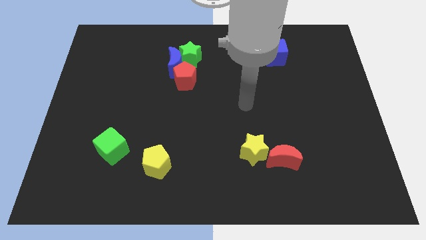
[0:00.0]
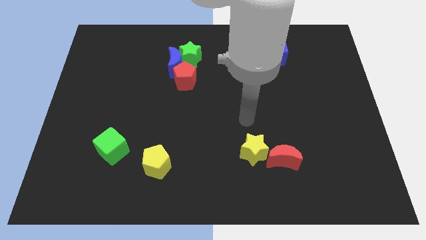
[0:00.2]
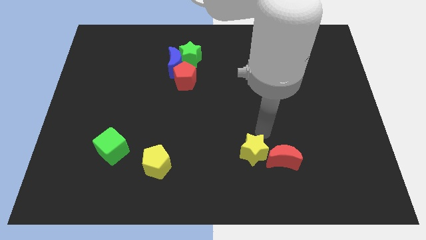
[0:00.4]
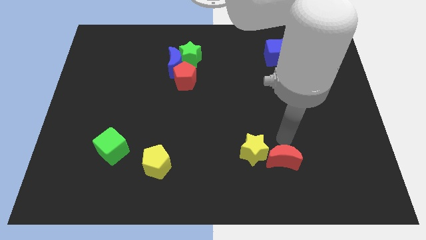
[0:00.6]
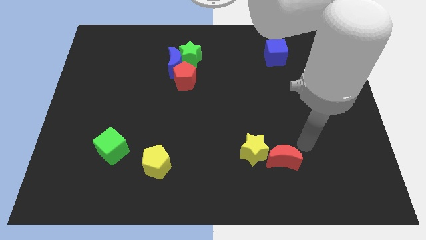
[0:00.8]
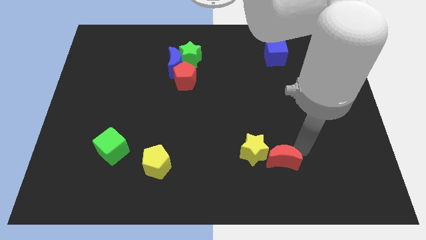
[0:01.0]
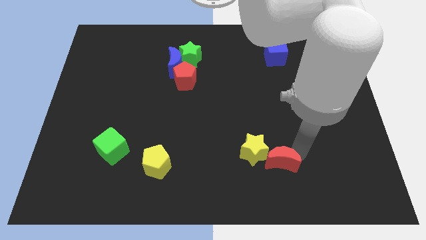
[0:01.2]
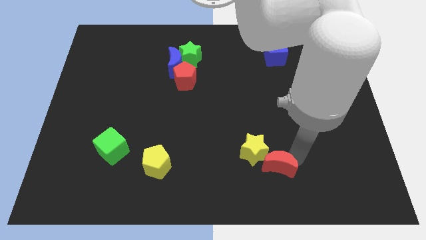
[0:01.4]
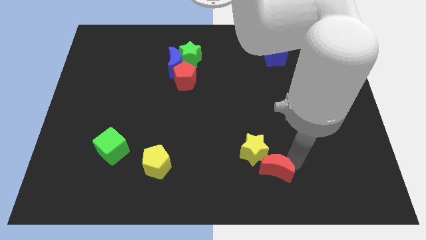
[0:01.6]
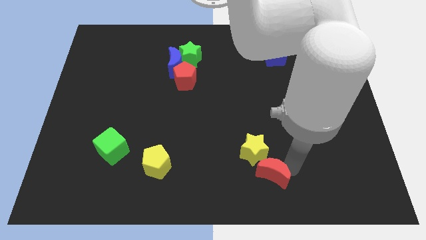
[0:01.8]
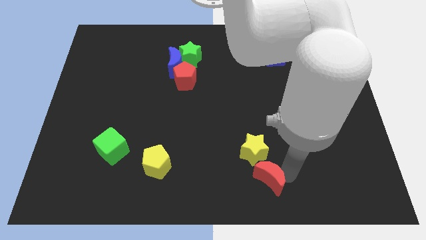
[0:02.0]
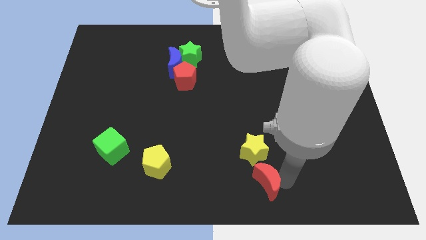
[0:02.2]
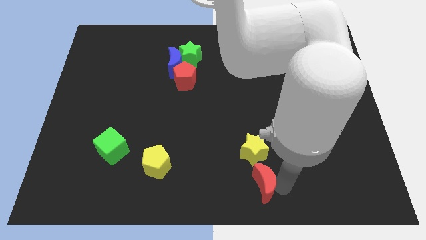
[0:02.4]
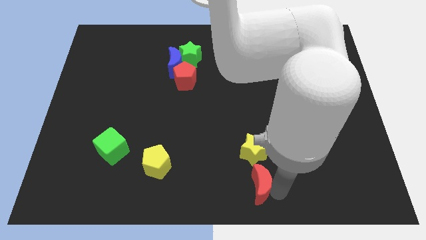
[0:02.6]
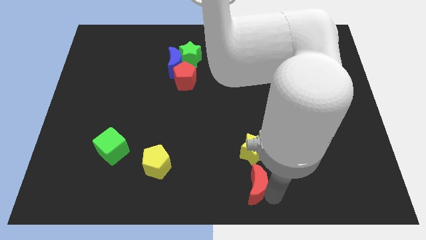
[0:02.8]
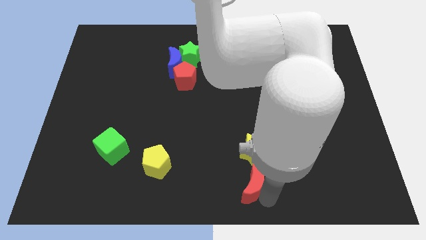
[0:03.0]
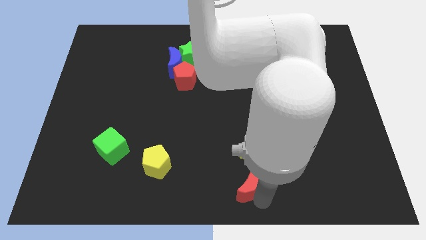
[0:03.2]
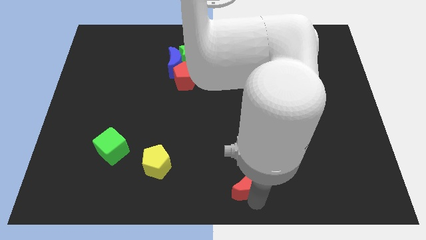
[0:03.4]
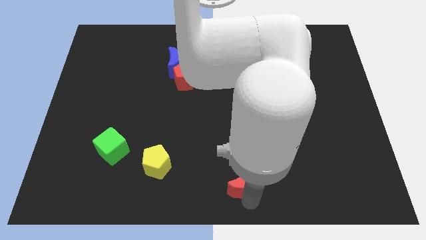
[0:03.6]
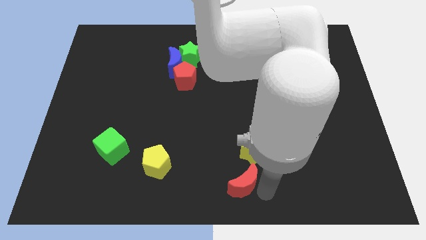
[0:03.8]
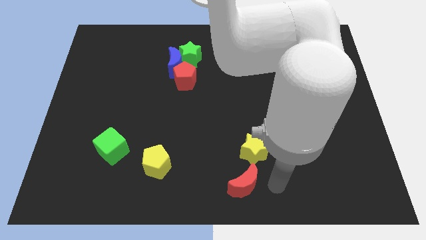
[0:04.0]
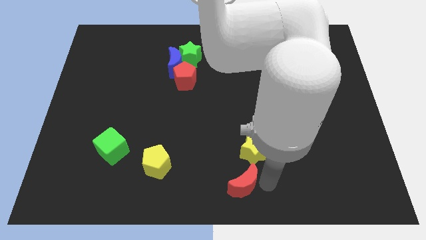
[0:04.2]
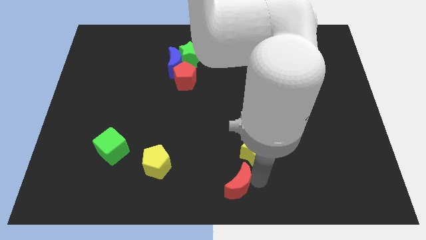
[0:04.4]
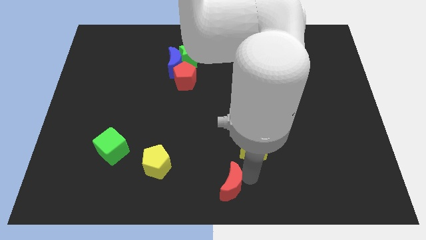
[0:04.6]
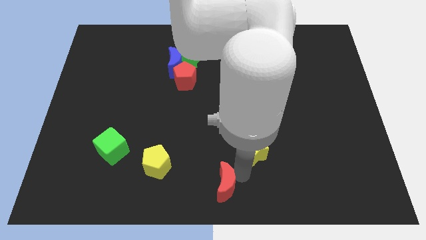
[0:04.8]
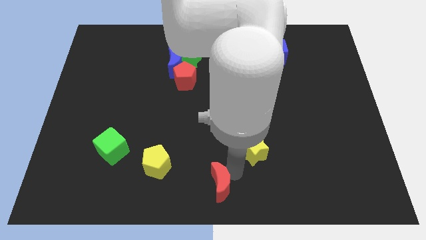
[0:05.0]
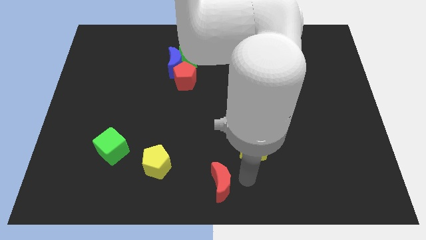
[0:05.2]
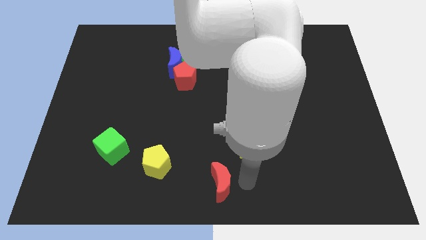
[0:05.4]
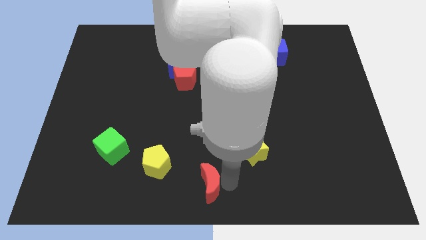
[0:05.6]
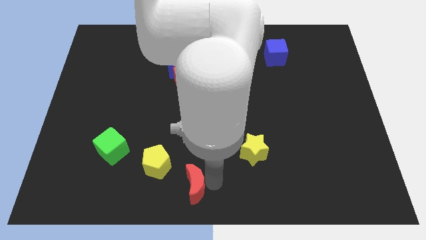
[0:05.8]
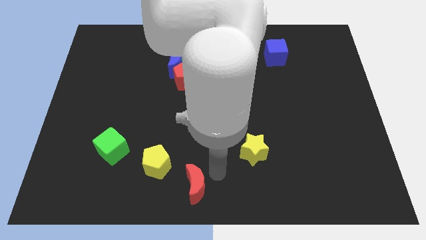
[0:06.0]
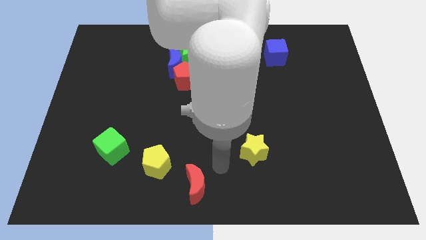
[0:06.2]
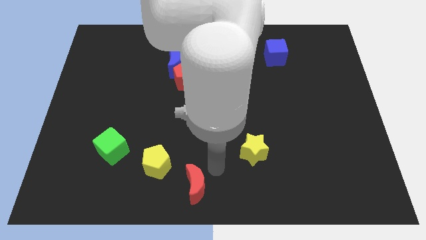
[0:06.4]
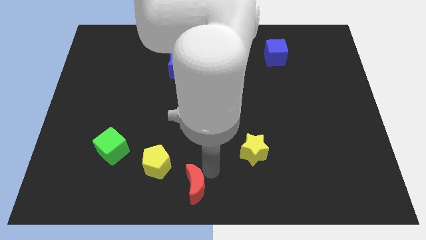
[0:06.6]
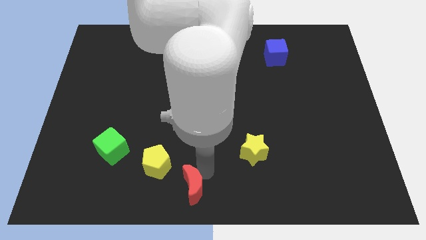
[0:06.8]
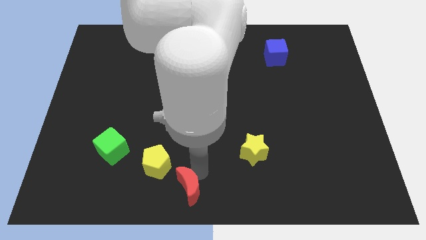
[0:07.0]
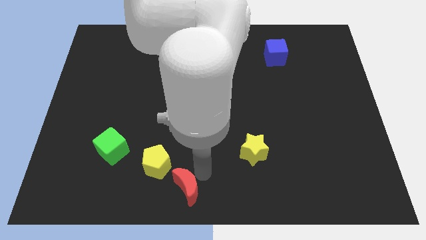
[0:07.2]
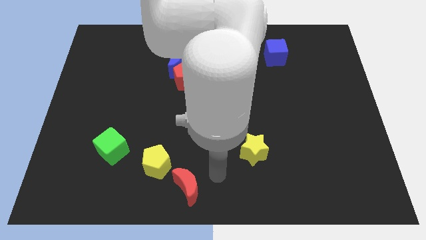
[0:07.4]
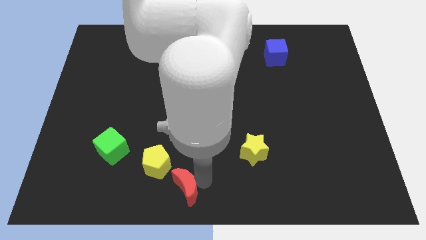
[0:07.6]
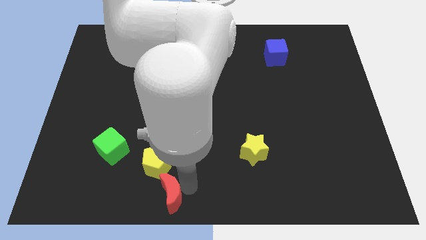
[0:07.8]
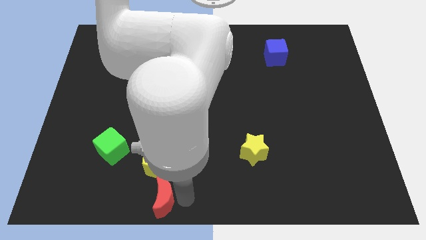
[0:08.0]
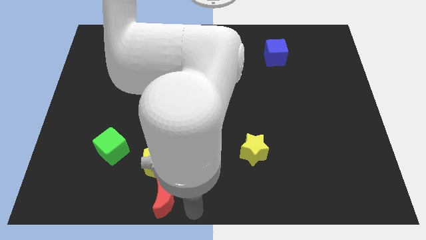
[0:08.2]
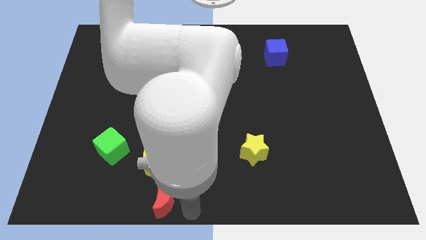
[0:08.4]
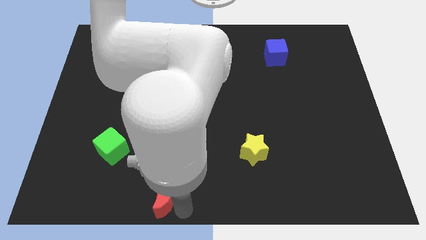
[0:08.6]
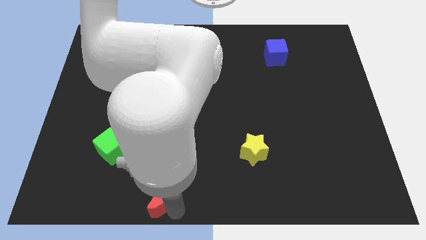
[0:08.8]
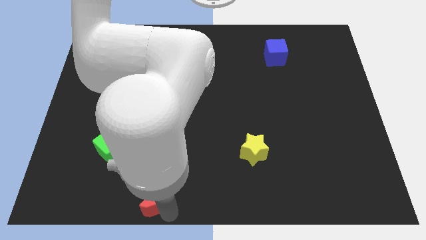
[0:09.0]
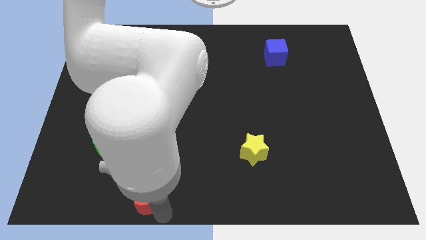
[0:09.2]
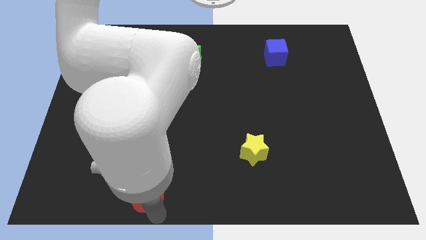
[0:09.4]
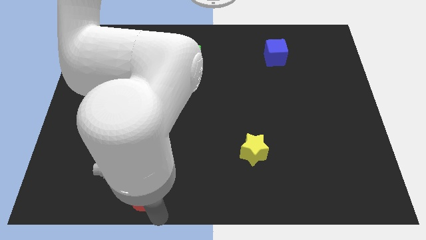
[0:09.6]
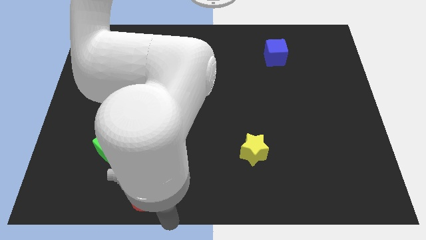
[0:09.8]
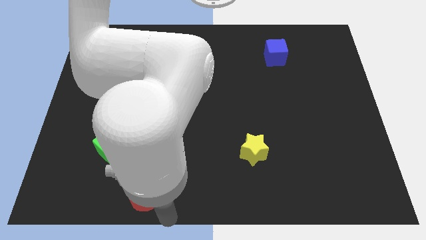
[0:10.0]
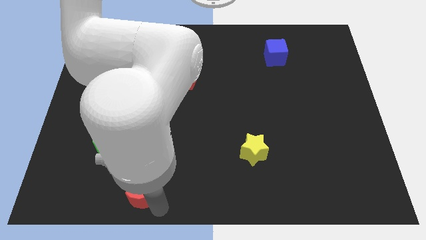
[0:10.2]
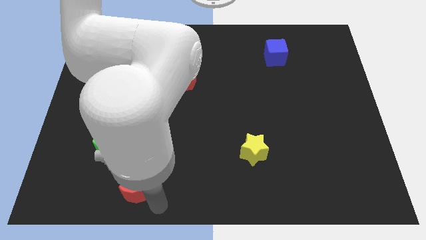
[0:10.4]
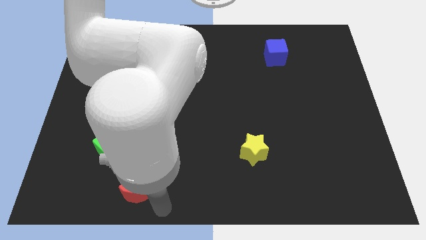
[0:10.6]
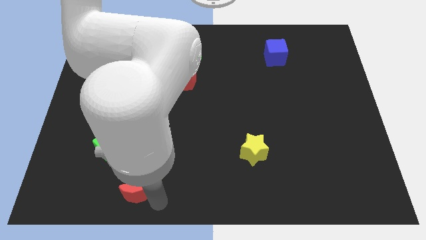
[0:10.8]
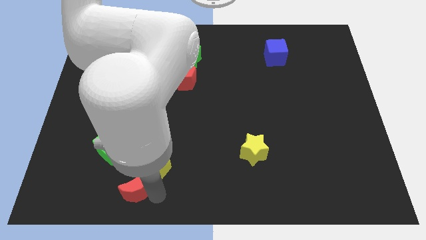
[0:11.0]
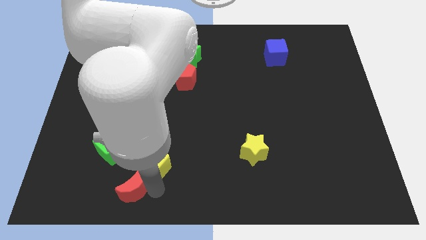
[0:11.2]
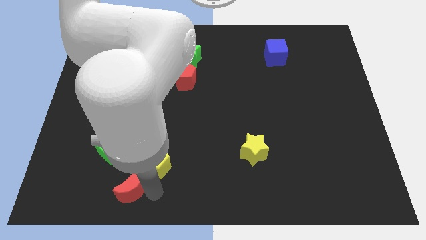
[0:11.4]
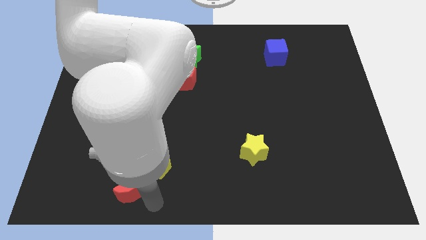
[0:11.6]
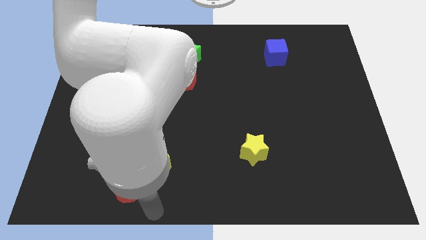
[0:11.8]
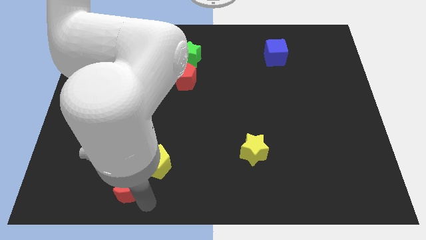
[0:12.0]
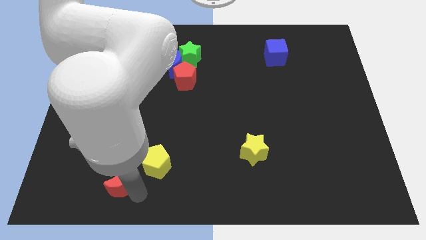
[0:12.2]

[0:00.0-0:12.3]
put the red moon to the left of the yellow pentagon

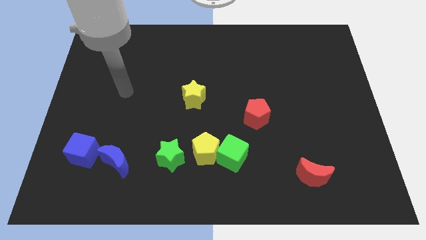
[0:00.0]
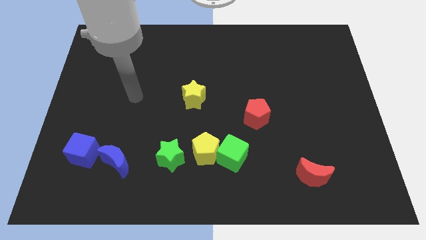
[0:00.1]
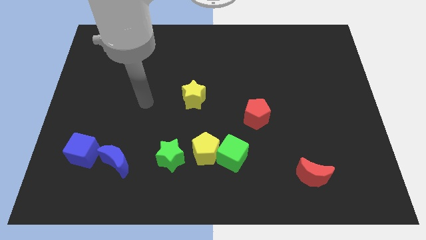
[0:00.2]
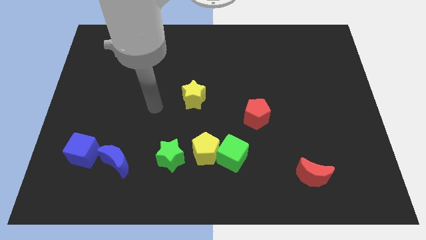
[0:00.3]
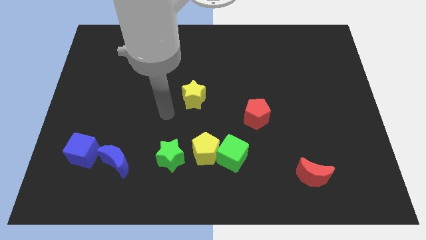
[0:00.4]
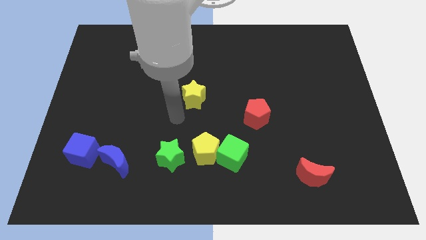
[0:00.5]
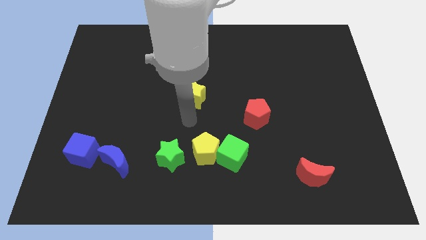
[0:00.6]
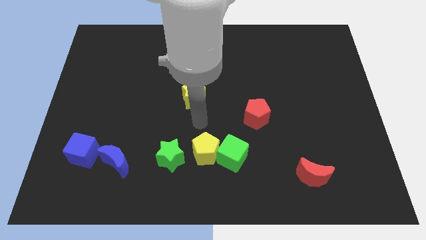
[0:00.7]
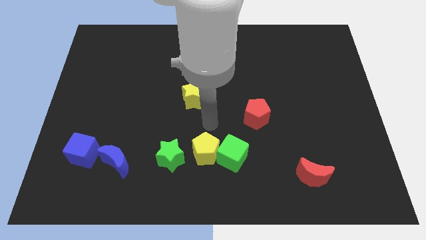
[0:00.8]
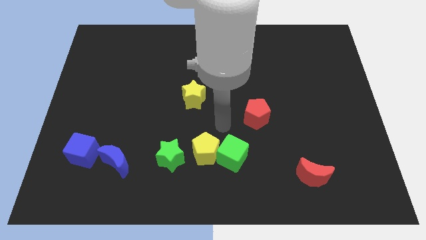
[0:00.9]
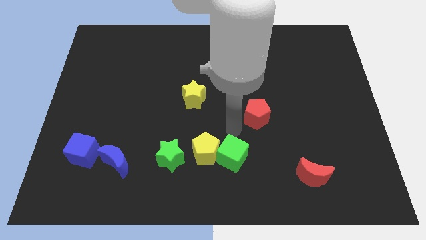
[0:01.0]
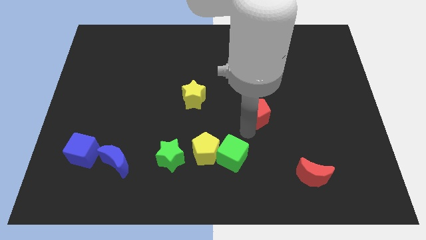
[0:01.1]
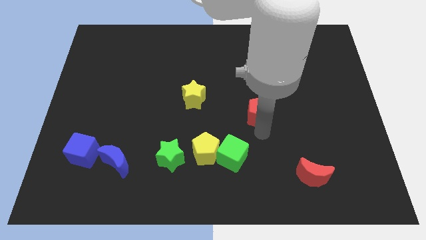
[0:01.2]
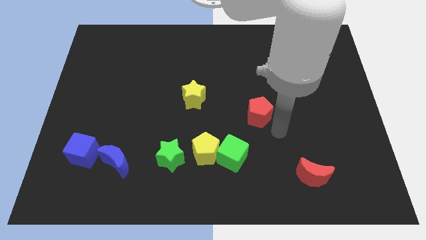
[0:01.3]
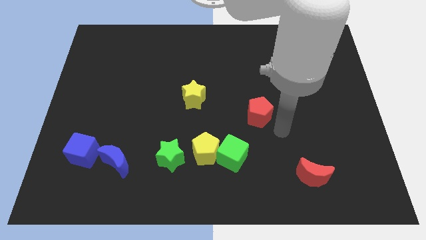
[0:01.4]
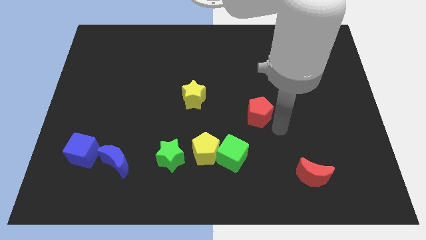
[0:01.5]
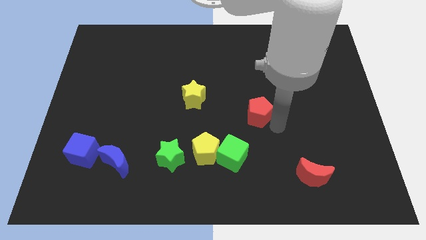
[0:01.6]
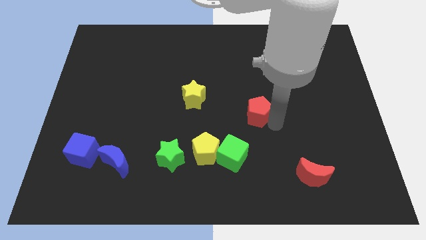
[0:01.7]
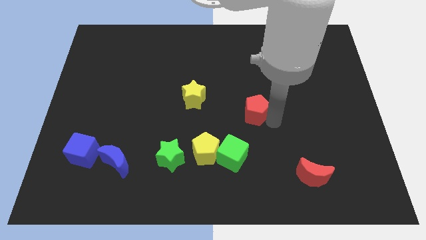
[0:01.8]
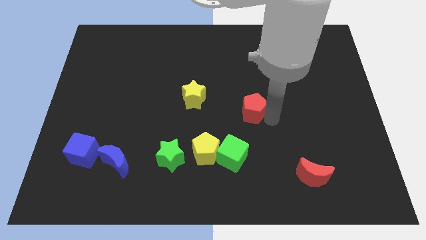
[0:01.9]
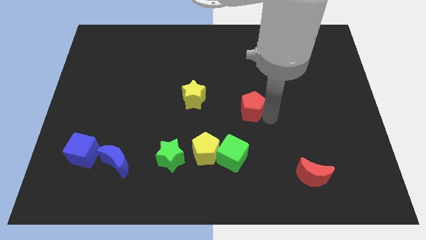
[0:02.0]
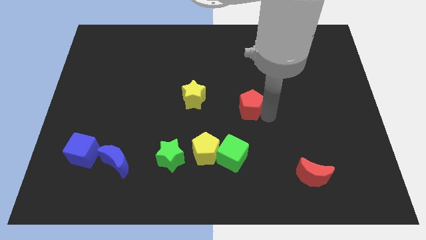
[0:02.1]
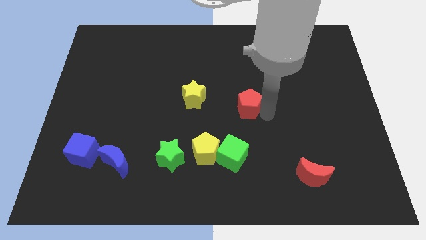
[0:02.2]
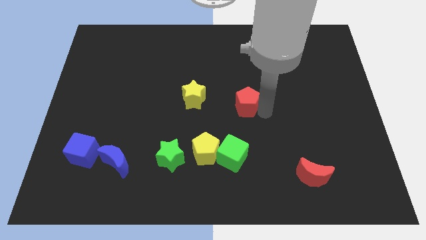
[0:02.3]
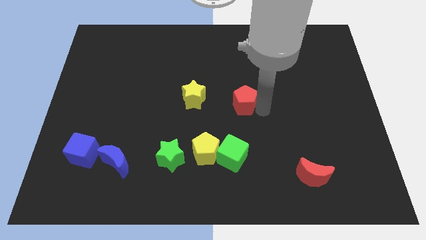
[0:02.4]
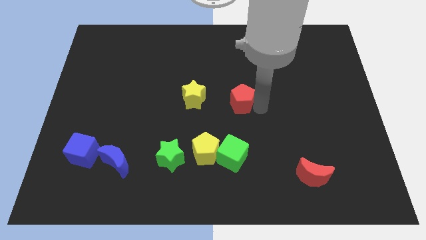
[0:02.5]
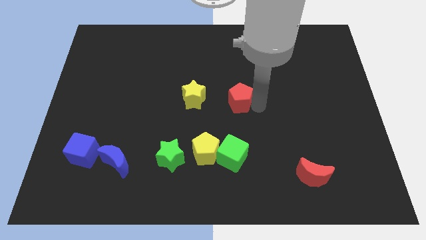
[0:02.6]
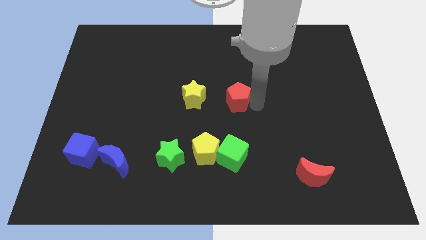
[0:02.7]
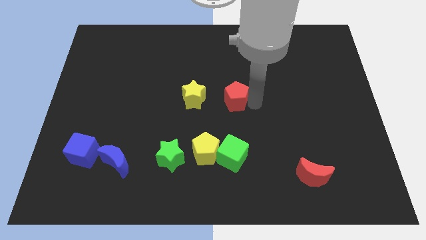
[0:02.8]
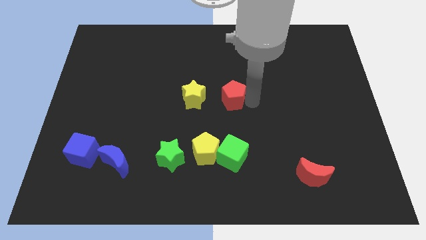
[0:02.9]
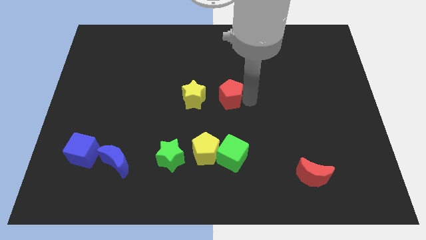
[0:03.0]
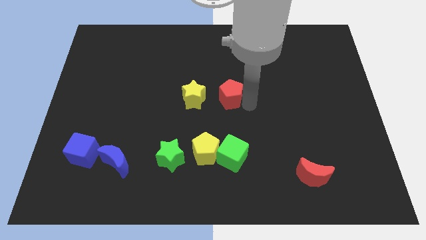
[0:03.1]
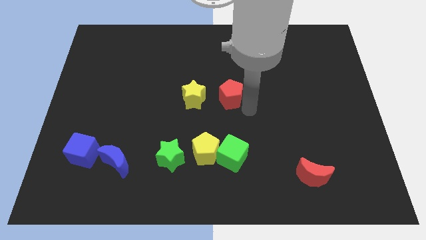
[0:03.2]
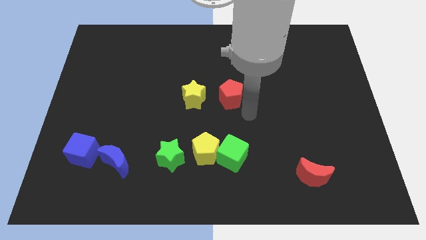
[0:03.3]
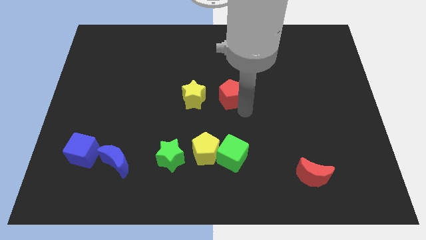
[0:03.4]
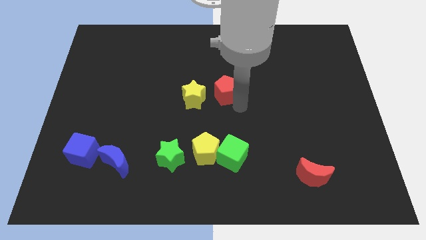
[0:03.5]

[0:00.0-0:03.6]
slide the red pentagon to the top right side of the yellow star
